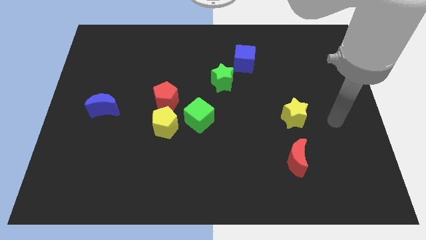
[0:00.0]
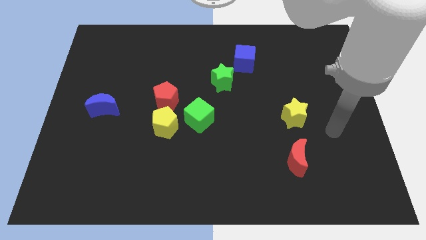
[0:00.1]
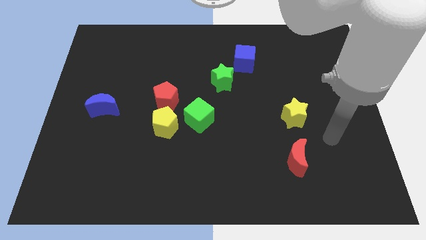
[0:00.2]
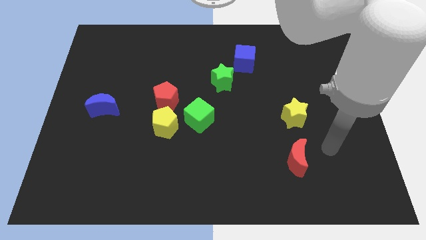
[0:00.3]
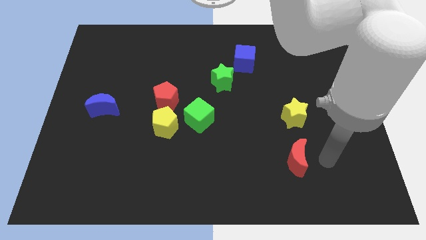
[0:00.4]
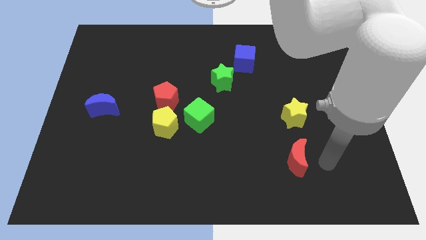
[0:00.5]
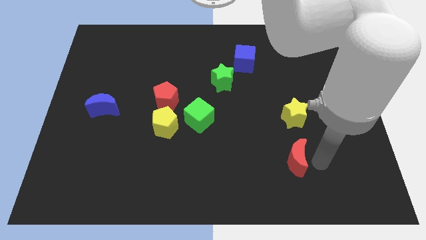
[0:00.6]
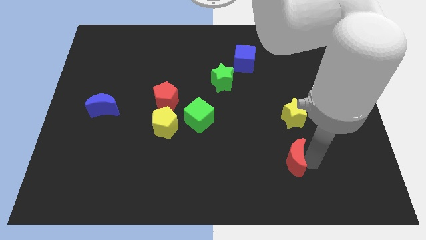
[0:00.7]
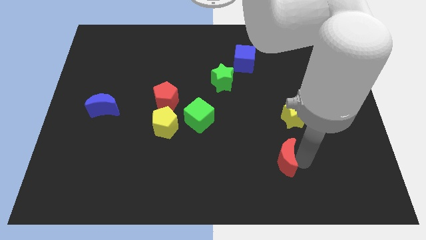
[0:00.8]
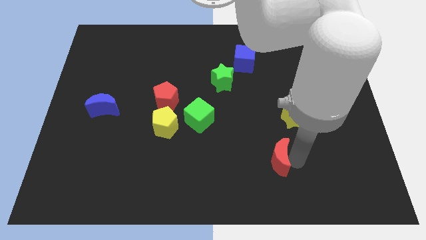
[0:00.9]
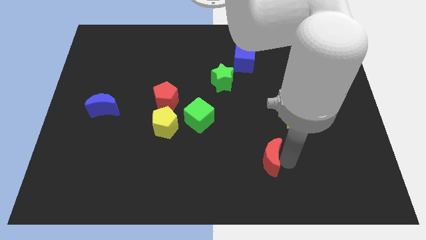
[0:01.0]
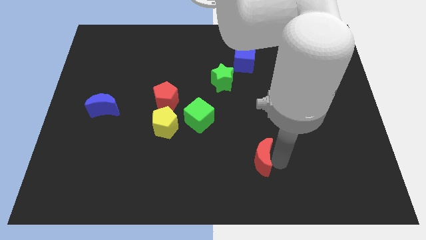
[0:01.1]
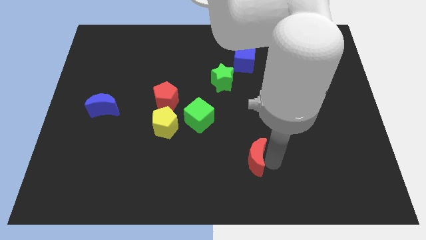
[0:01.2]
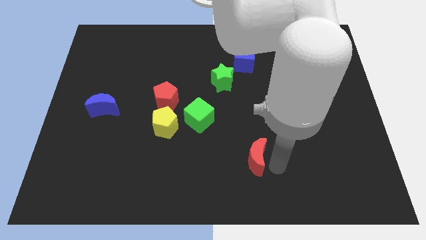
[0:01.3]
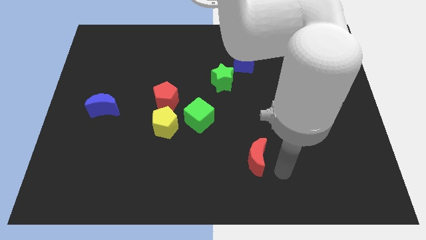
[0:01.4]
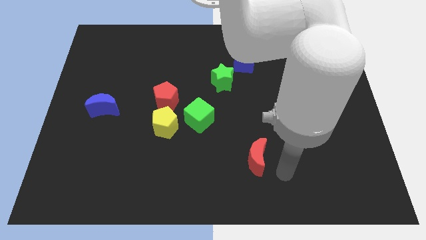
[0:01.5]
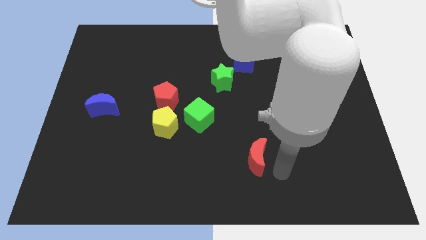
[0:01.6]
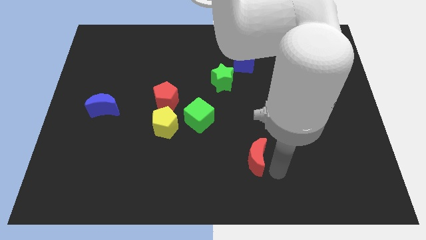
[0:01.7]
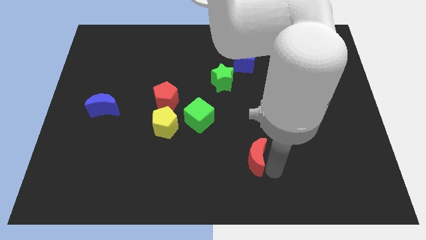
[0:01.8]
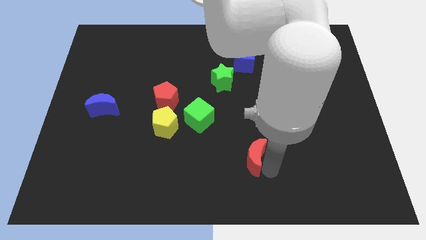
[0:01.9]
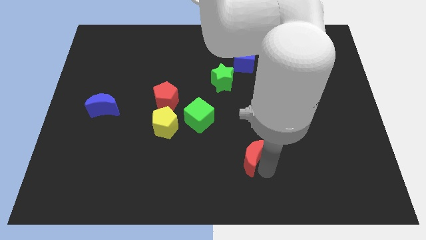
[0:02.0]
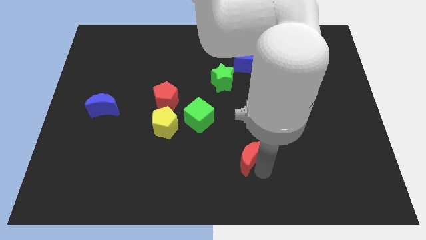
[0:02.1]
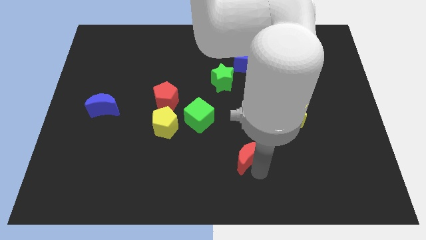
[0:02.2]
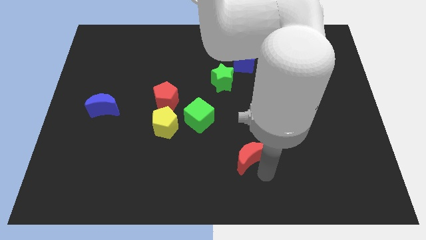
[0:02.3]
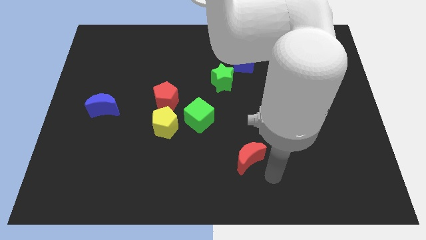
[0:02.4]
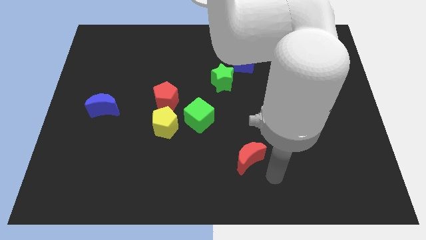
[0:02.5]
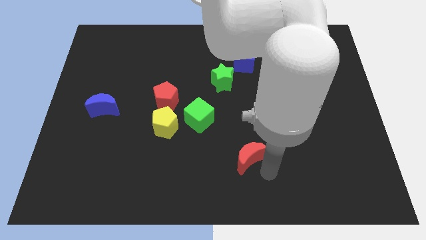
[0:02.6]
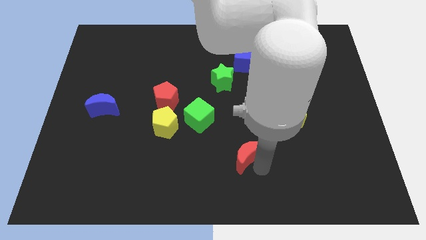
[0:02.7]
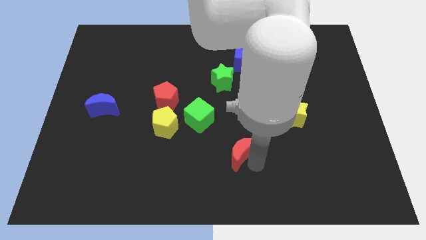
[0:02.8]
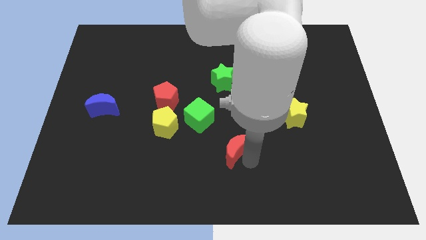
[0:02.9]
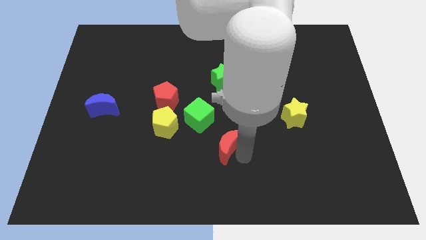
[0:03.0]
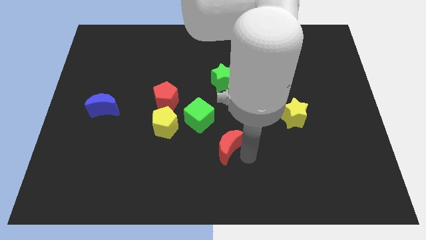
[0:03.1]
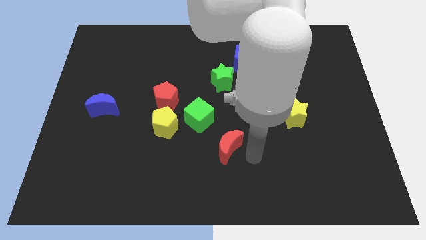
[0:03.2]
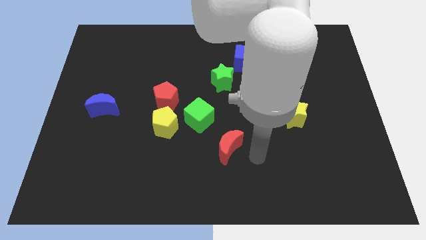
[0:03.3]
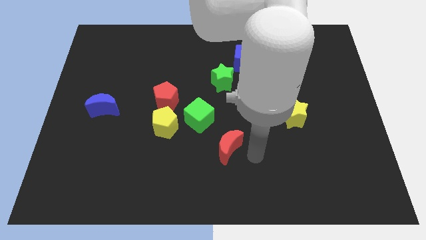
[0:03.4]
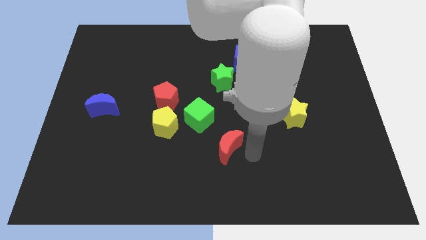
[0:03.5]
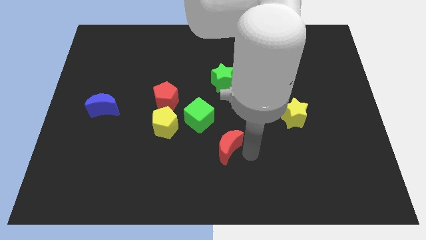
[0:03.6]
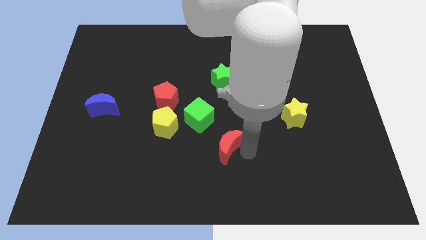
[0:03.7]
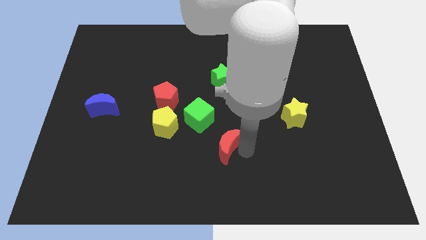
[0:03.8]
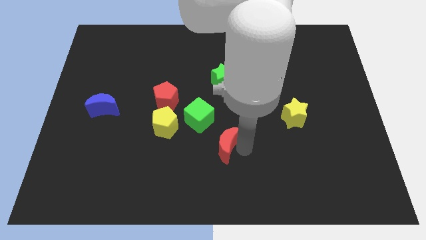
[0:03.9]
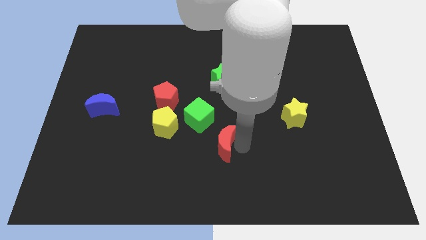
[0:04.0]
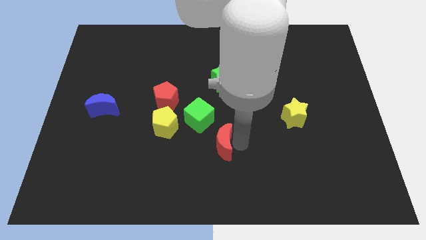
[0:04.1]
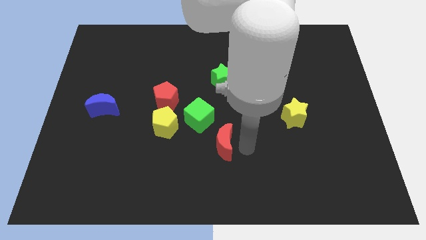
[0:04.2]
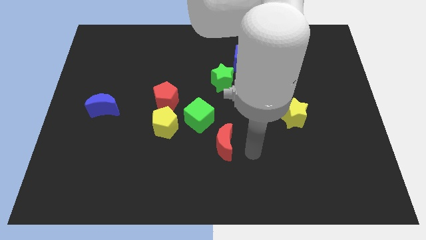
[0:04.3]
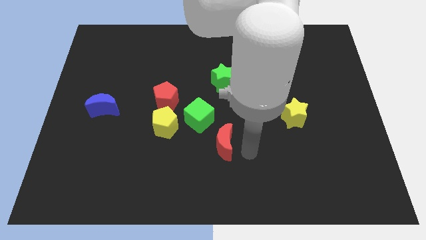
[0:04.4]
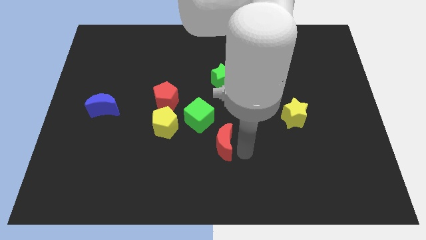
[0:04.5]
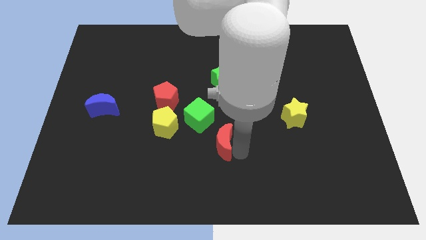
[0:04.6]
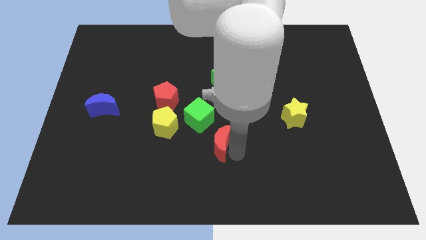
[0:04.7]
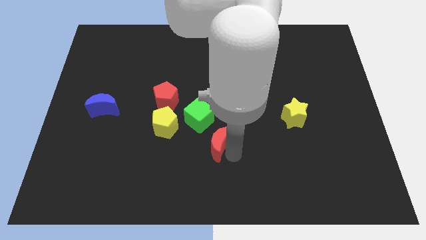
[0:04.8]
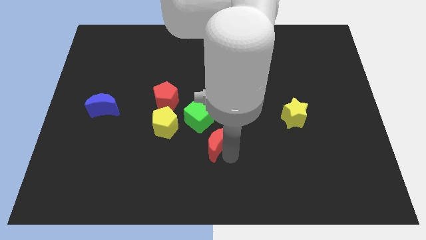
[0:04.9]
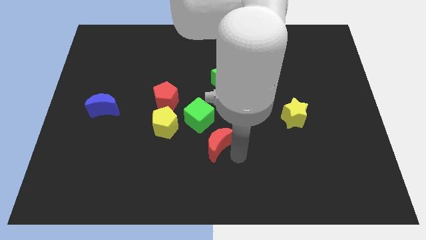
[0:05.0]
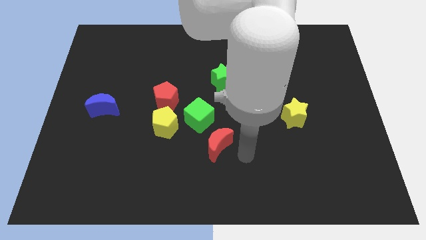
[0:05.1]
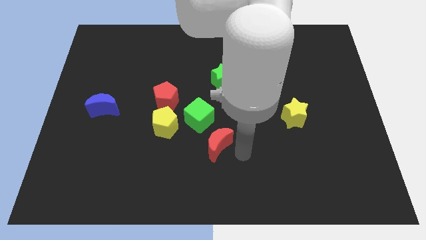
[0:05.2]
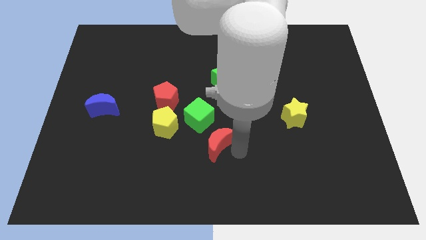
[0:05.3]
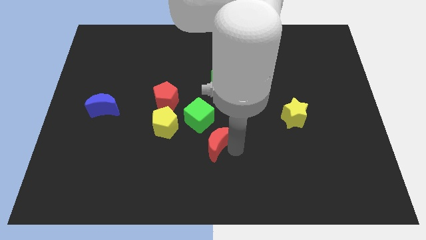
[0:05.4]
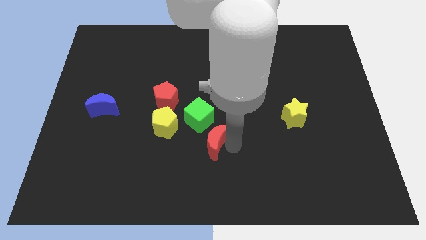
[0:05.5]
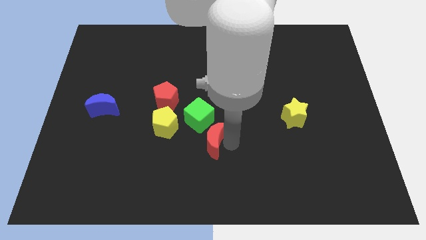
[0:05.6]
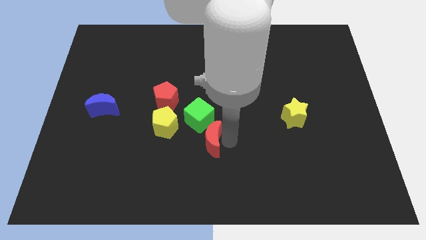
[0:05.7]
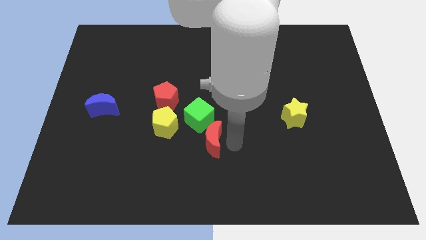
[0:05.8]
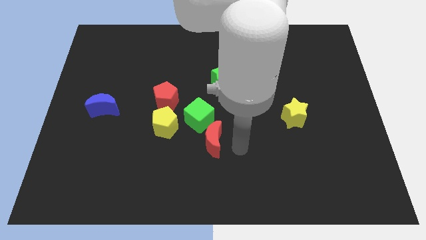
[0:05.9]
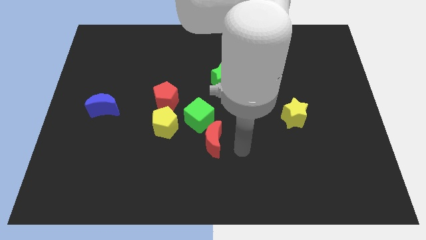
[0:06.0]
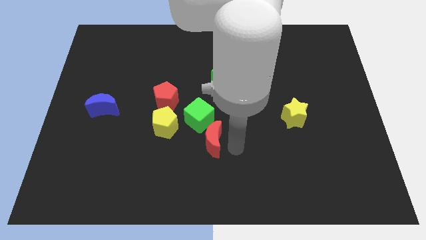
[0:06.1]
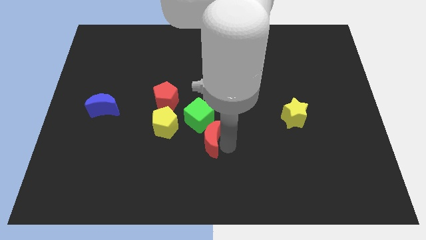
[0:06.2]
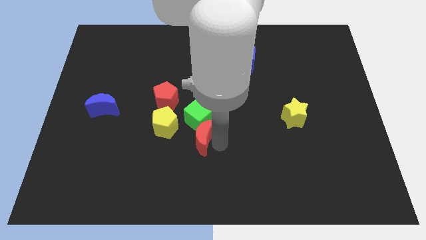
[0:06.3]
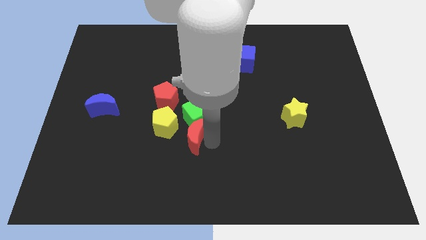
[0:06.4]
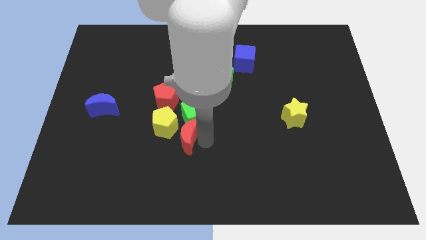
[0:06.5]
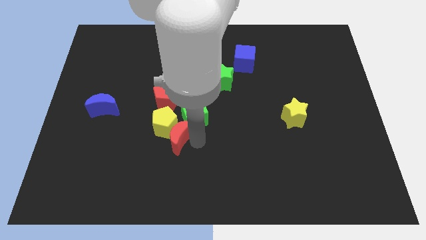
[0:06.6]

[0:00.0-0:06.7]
slide the red moon next to the yellow pentagon
